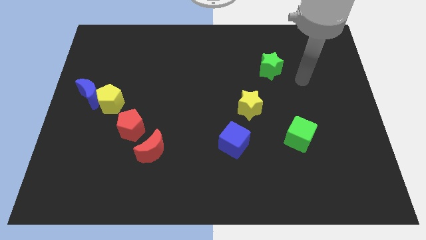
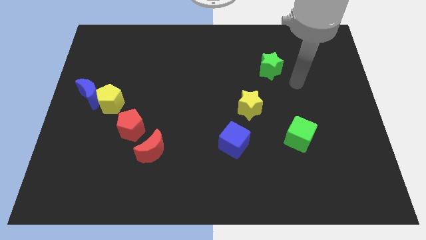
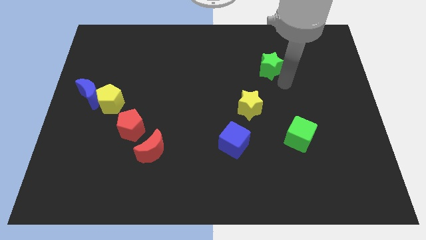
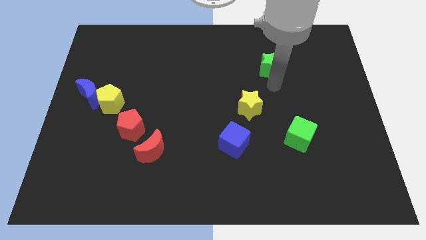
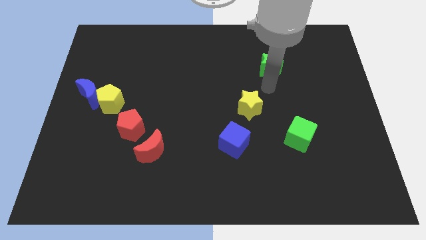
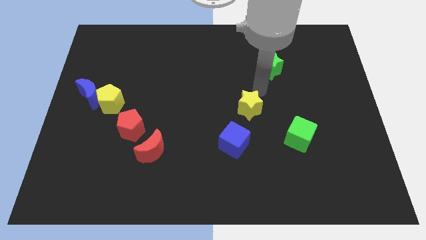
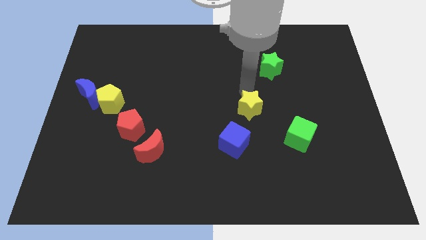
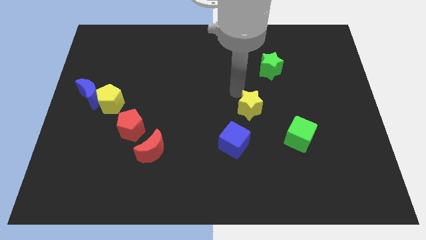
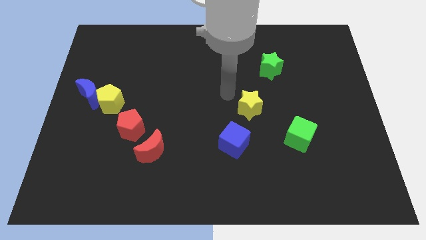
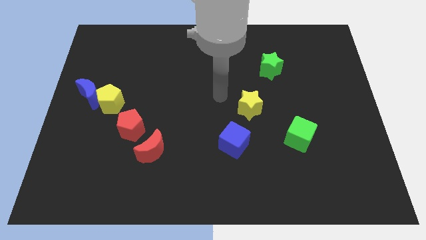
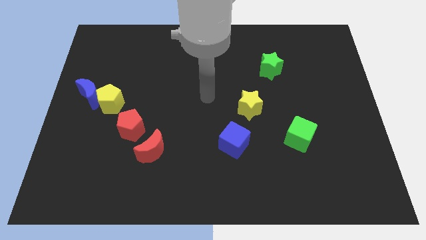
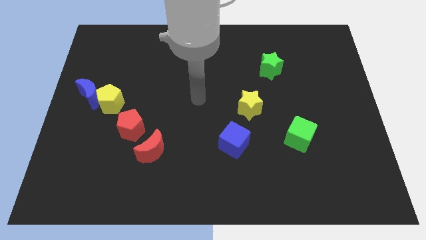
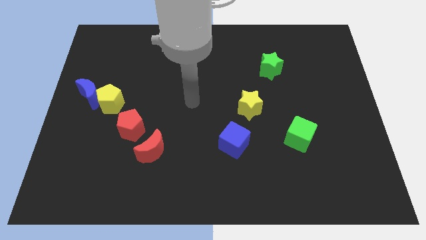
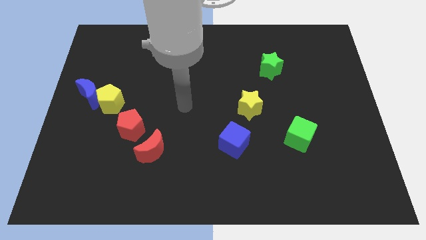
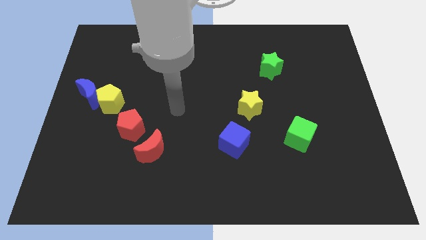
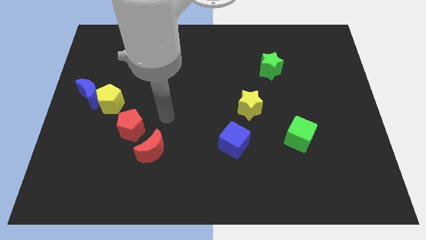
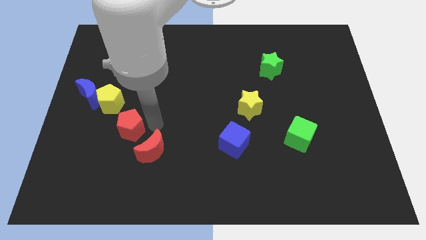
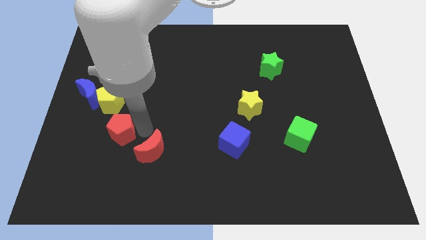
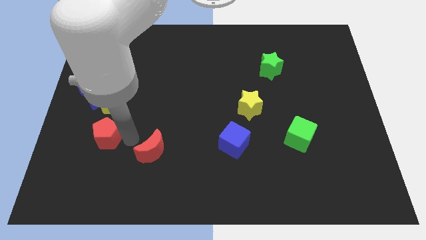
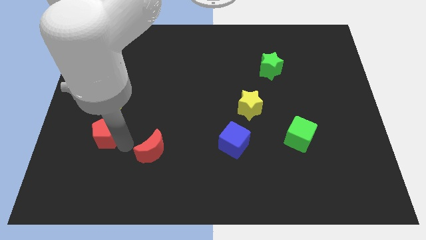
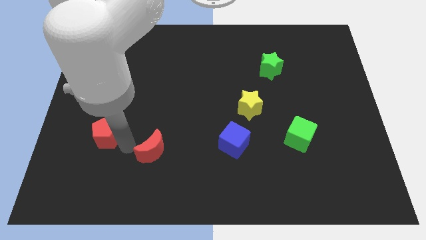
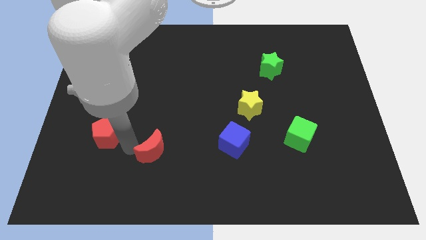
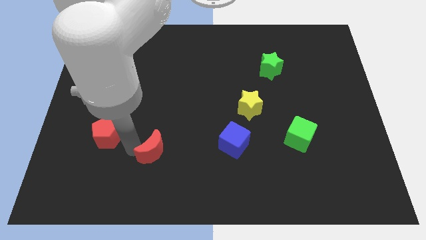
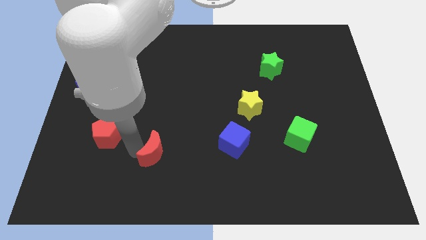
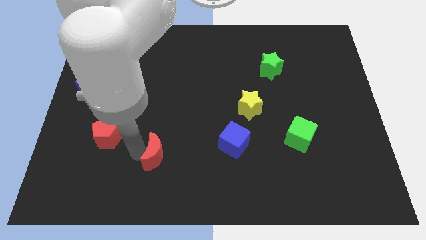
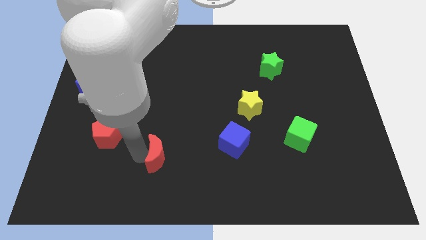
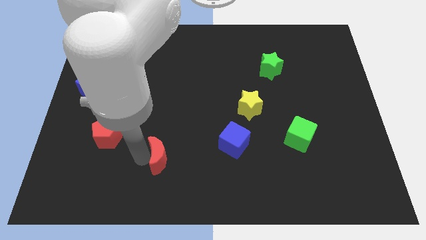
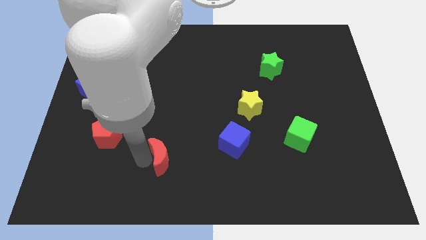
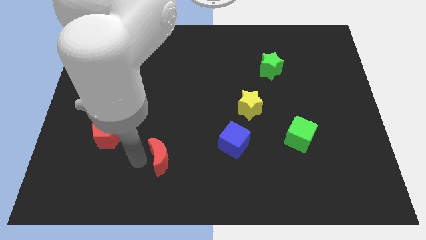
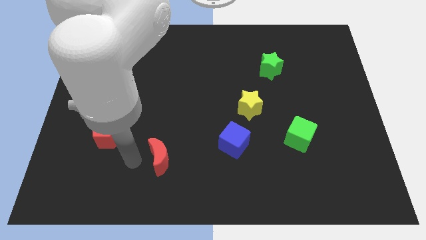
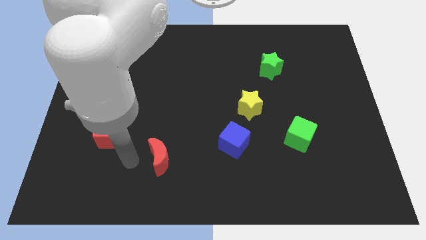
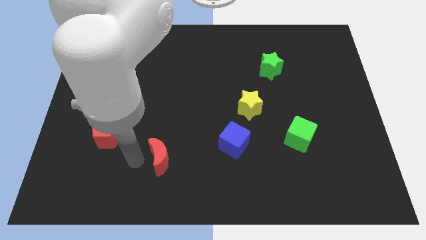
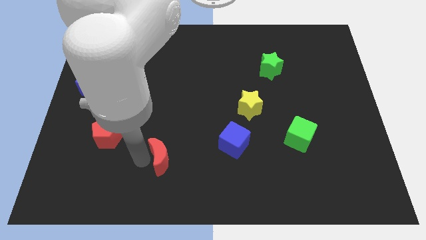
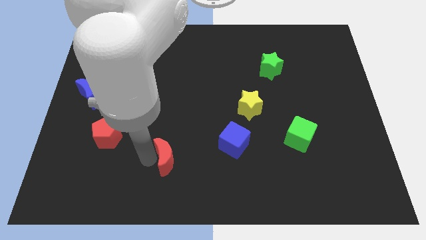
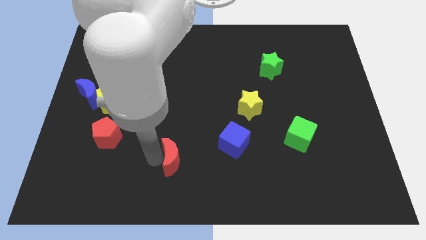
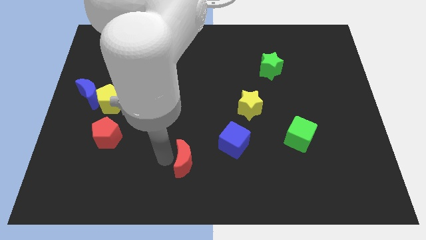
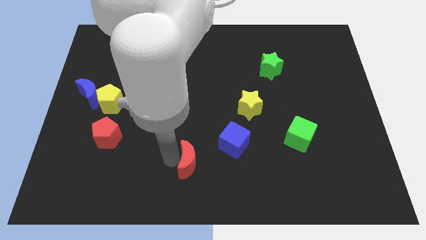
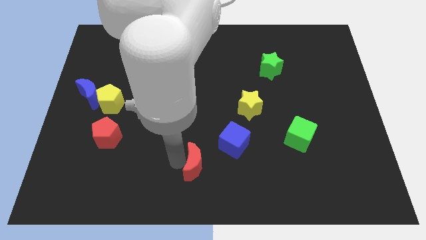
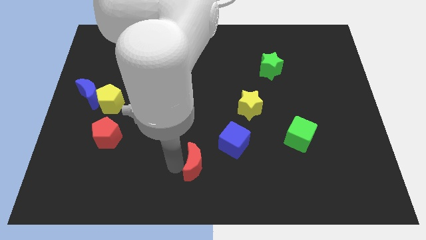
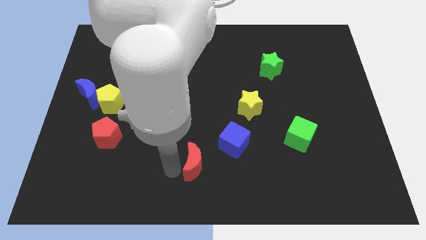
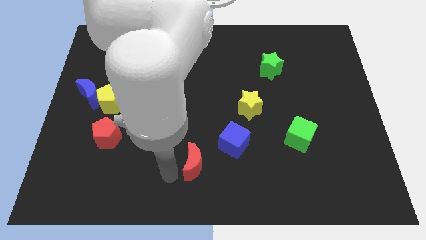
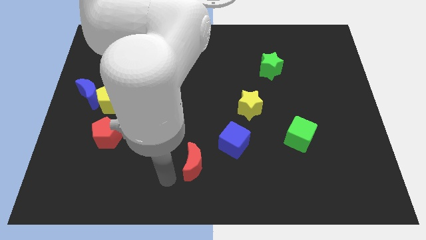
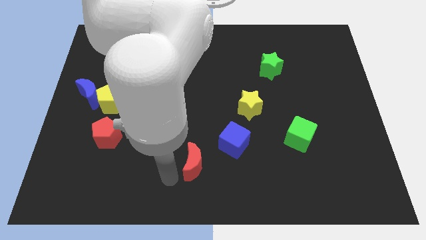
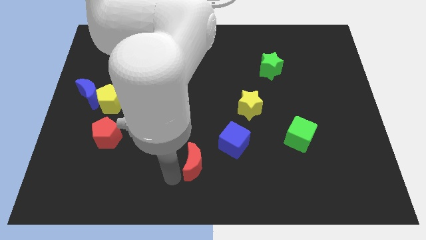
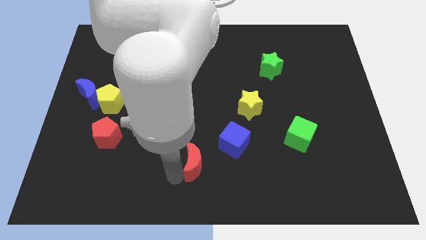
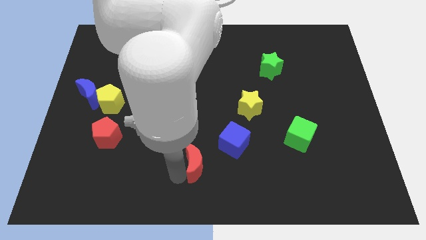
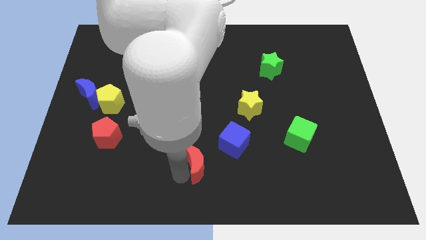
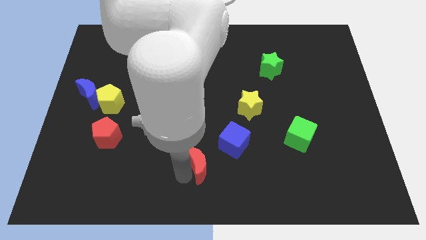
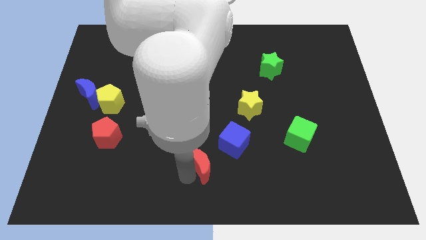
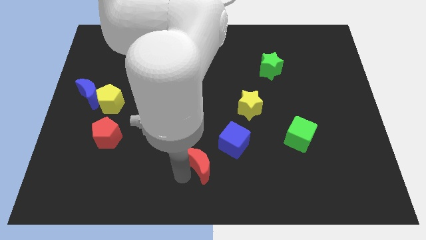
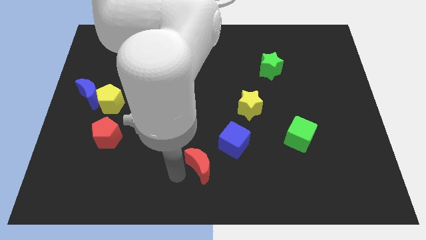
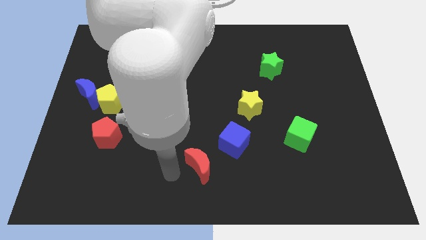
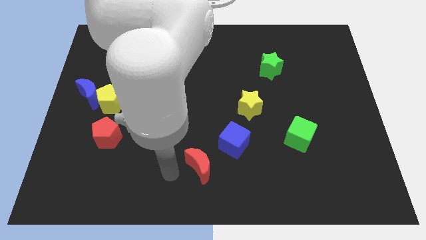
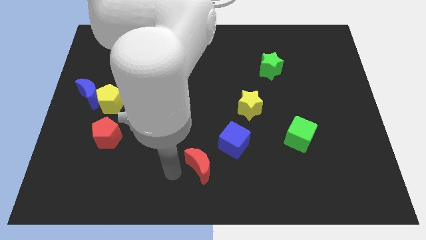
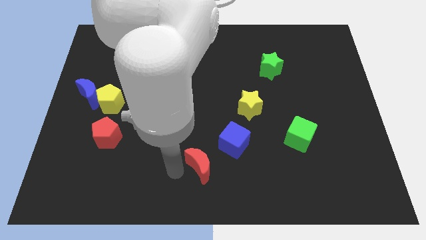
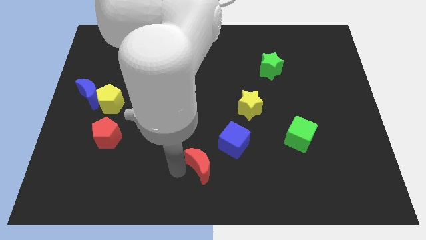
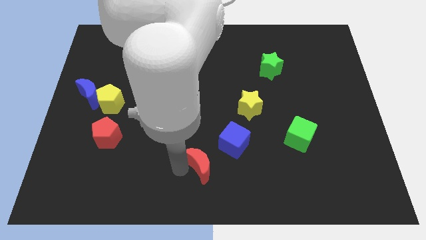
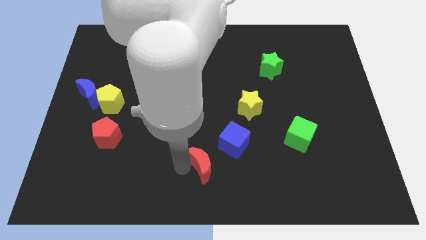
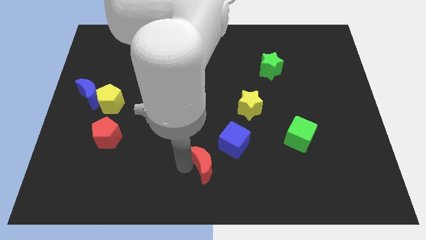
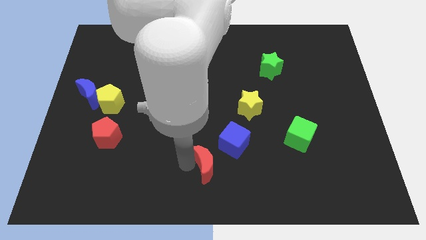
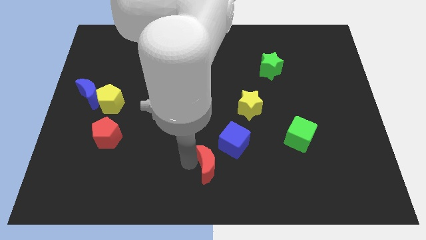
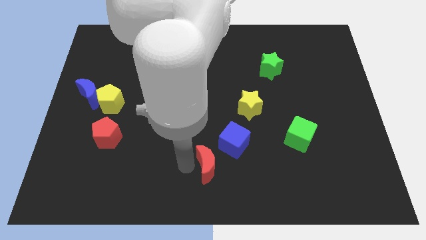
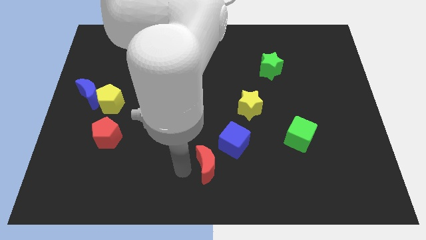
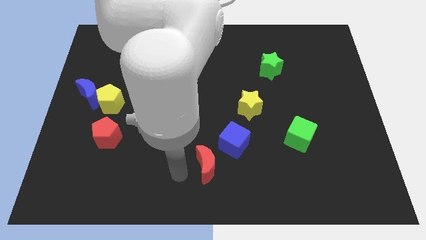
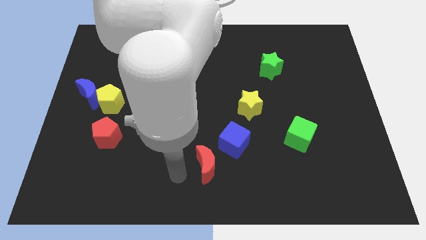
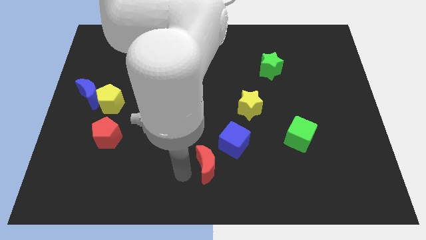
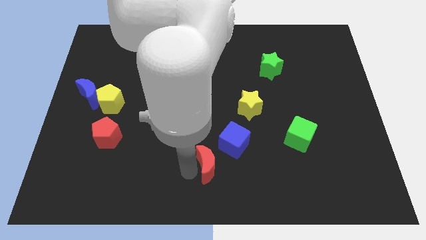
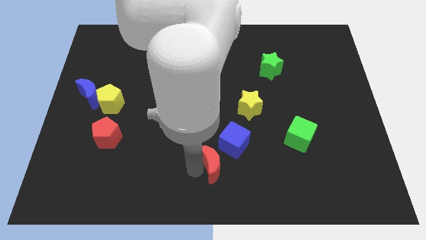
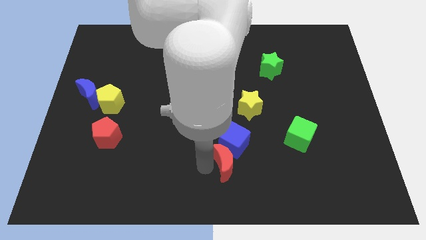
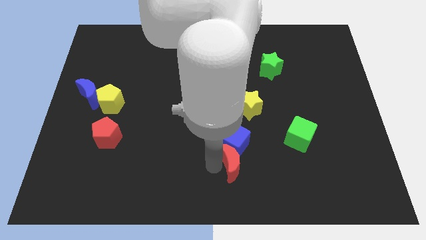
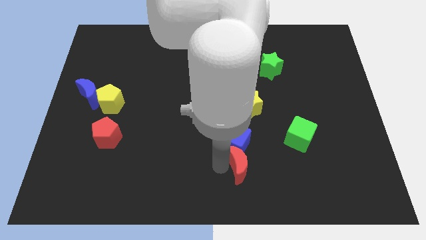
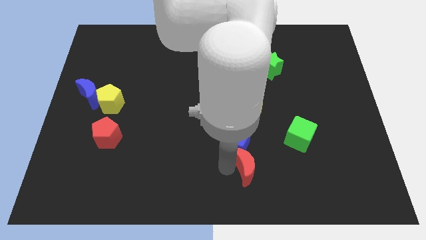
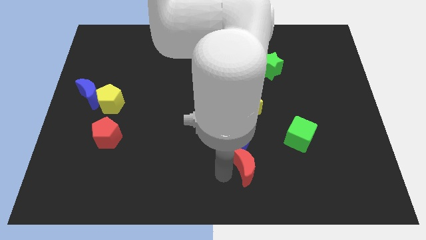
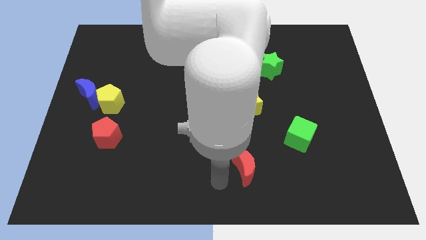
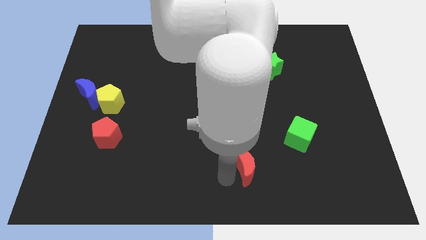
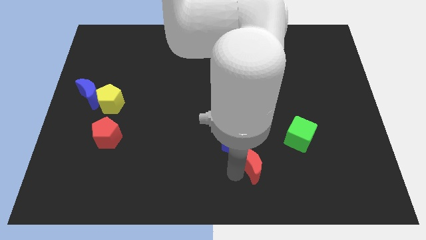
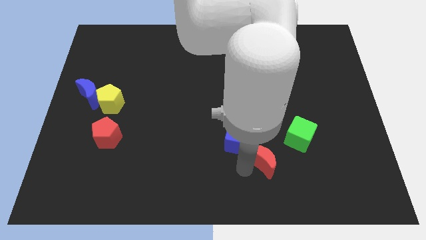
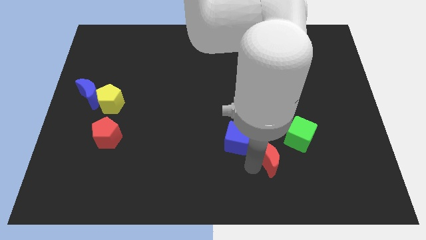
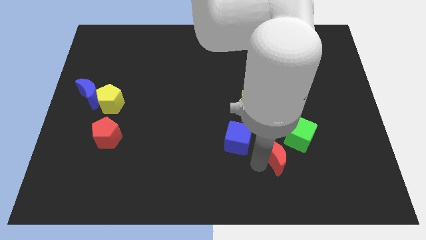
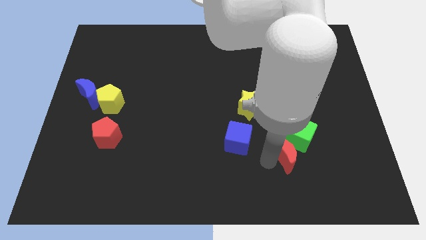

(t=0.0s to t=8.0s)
push the red moon next to the green cube
